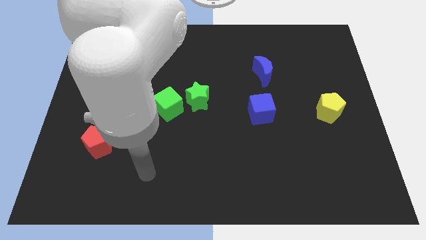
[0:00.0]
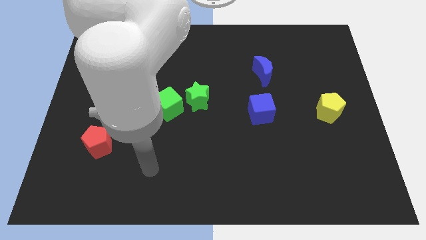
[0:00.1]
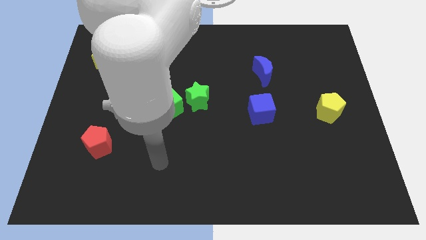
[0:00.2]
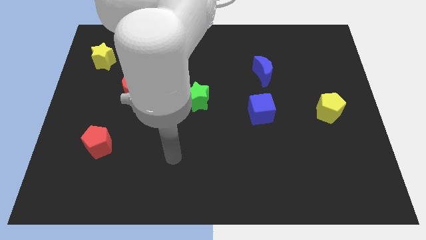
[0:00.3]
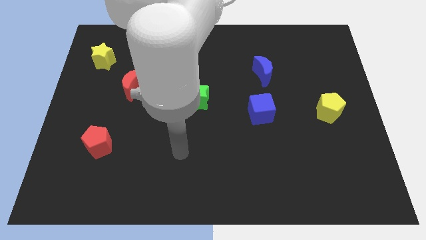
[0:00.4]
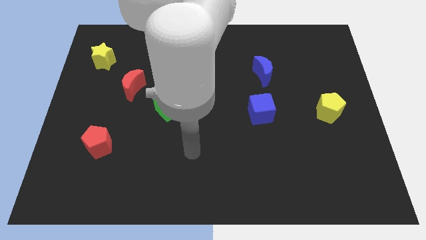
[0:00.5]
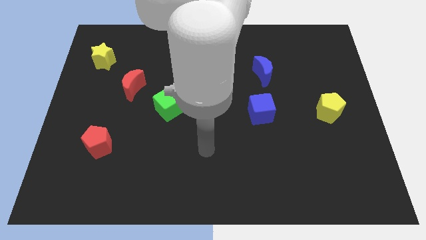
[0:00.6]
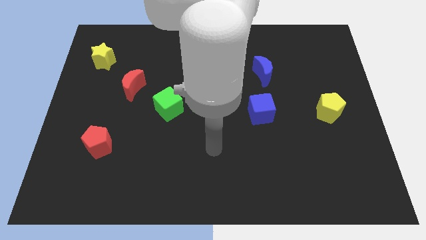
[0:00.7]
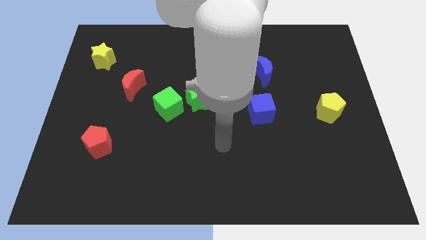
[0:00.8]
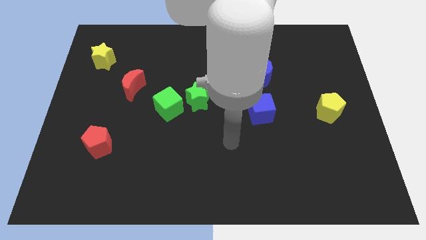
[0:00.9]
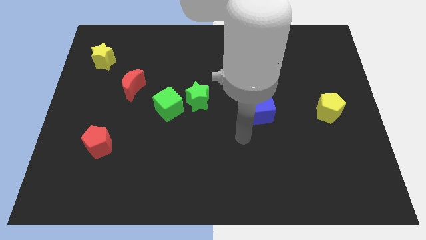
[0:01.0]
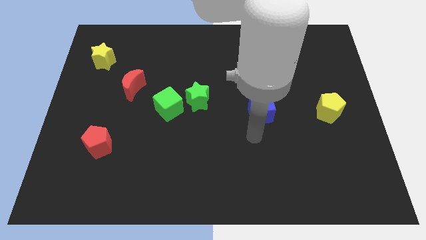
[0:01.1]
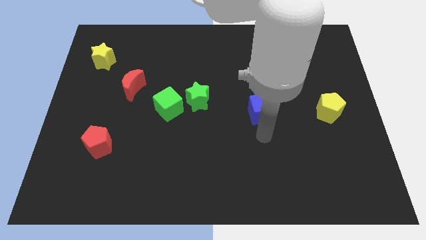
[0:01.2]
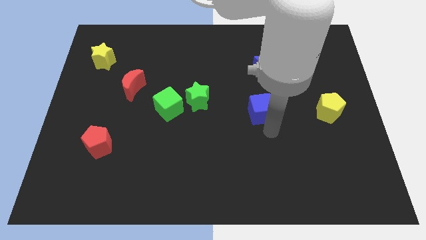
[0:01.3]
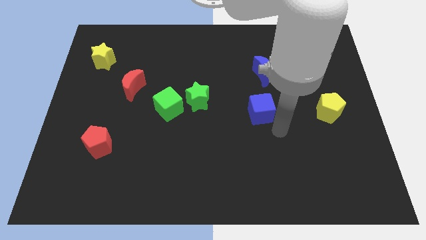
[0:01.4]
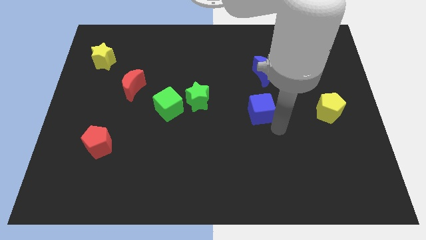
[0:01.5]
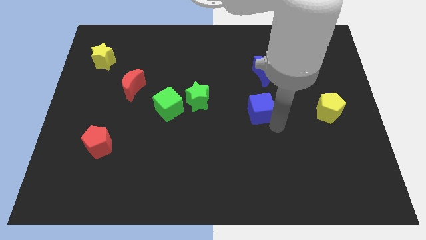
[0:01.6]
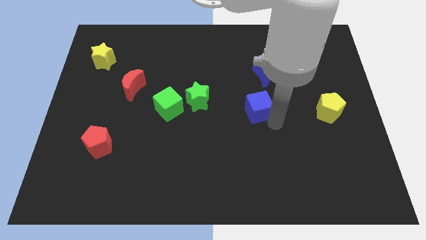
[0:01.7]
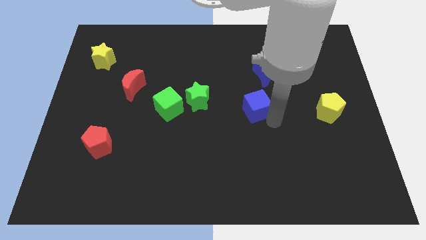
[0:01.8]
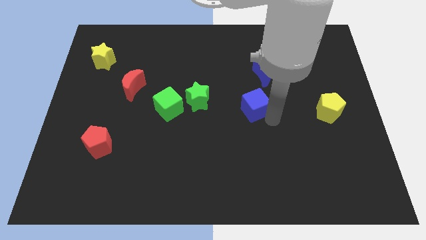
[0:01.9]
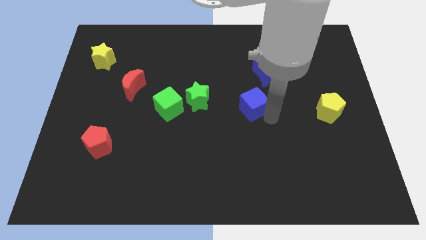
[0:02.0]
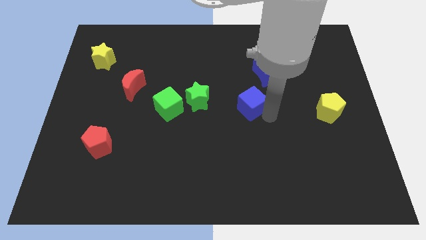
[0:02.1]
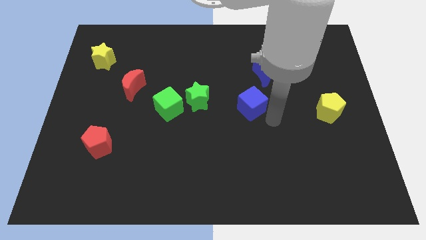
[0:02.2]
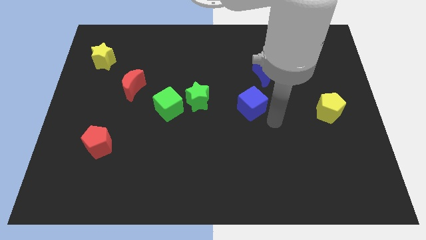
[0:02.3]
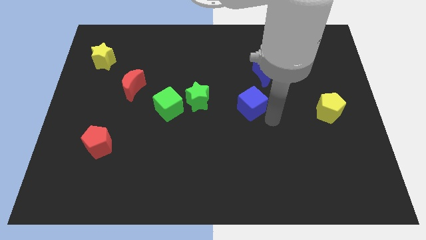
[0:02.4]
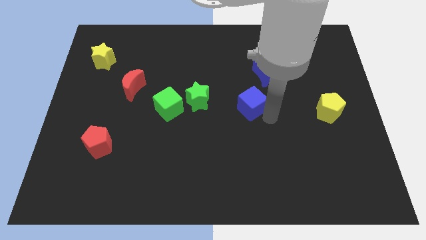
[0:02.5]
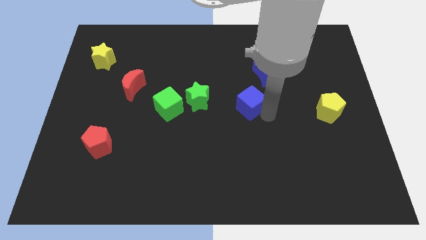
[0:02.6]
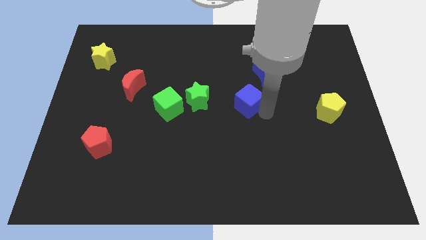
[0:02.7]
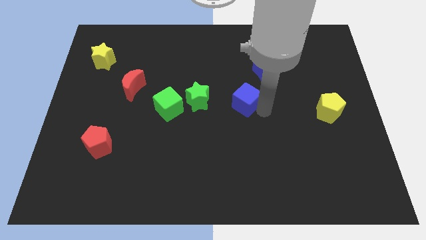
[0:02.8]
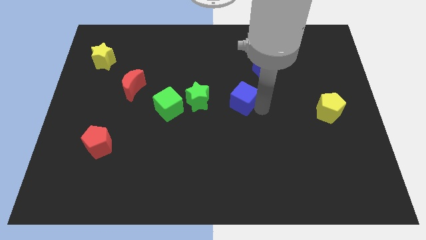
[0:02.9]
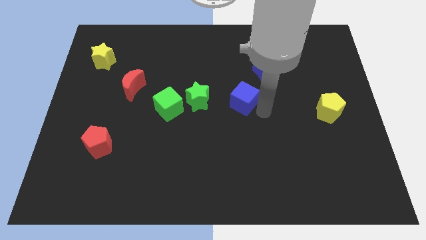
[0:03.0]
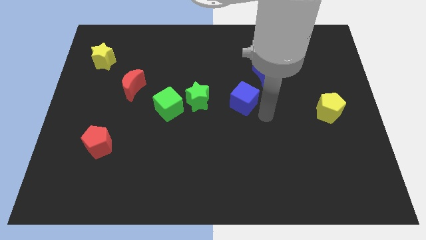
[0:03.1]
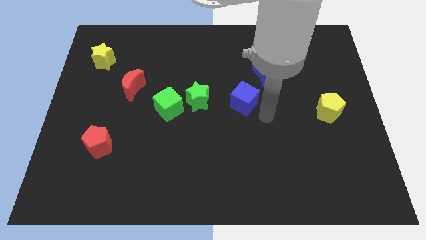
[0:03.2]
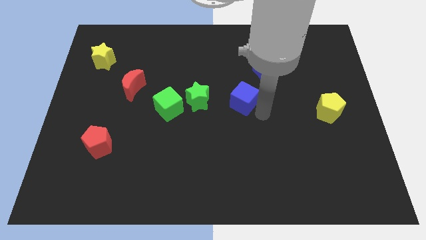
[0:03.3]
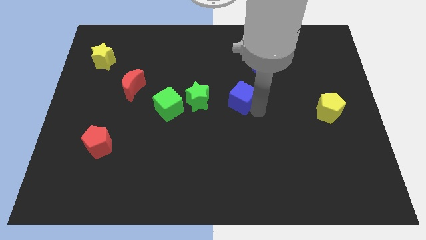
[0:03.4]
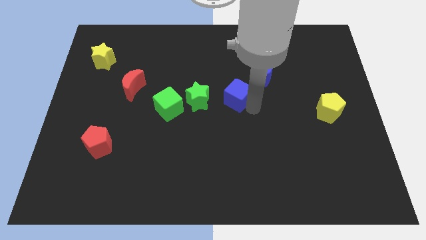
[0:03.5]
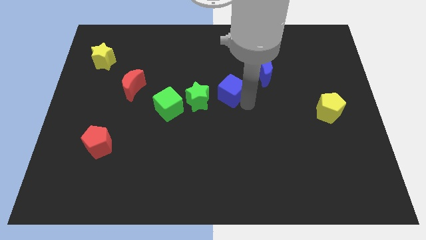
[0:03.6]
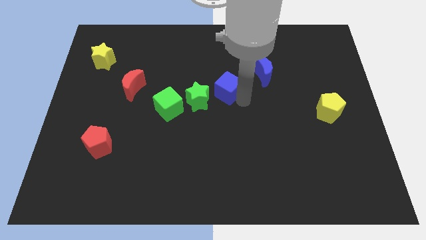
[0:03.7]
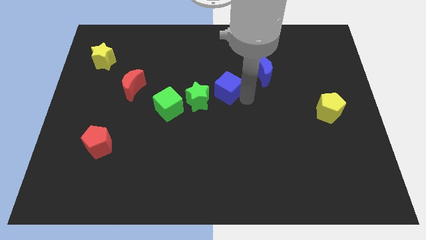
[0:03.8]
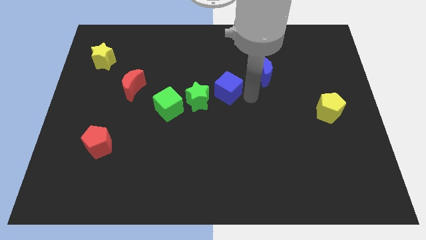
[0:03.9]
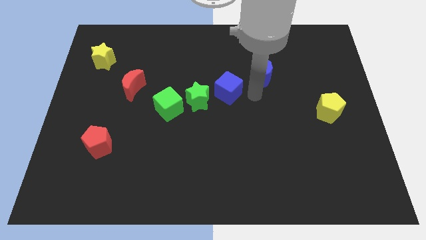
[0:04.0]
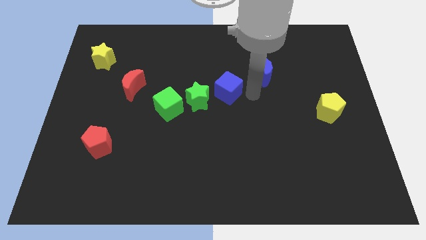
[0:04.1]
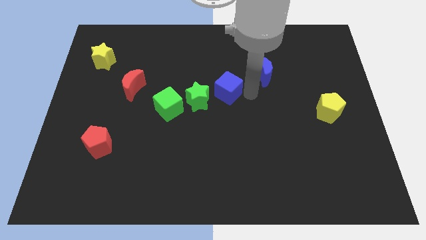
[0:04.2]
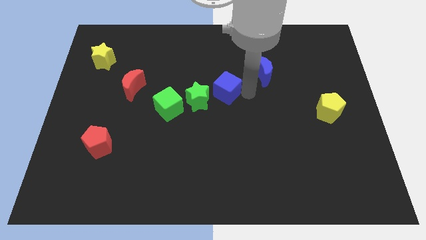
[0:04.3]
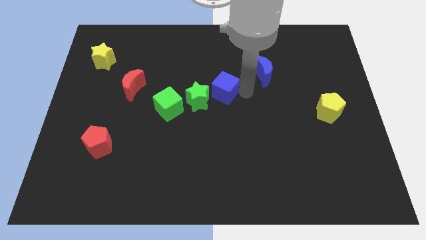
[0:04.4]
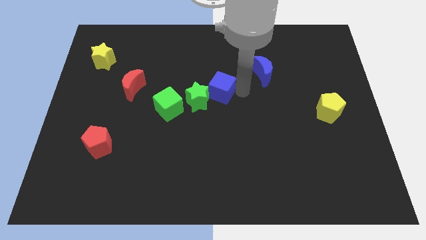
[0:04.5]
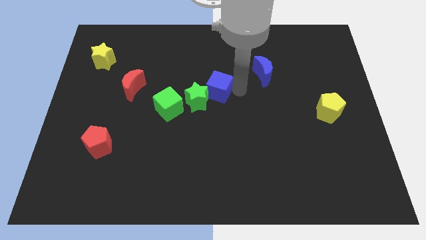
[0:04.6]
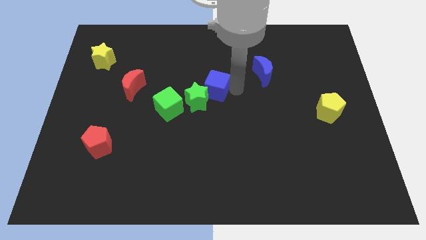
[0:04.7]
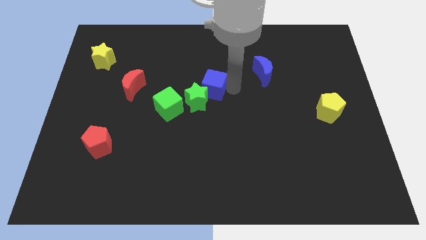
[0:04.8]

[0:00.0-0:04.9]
put the blue cube to the top right side of the green cube

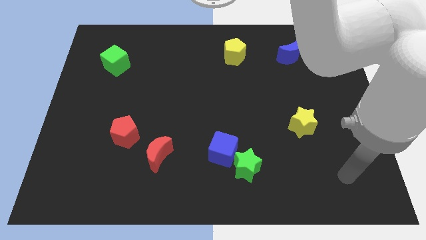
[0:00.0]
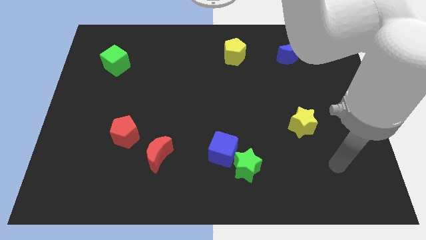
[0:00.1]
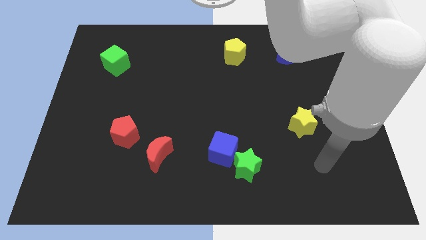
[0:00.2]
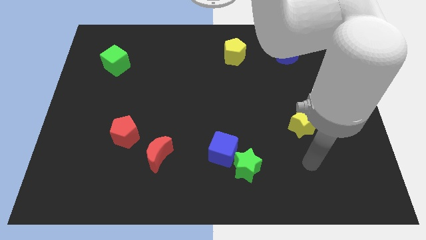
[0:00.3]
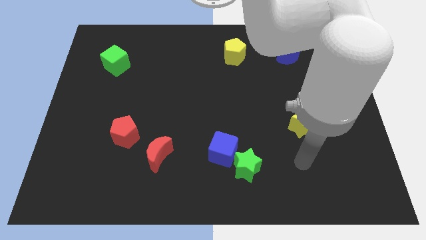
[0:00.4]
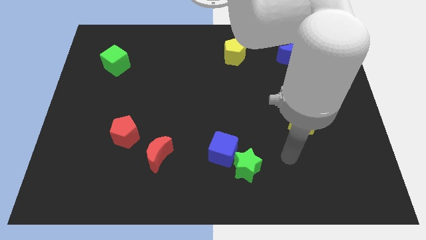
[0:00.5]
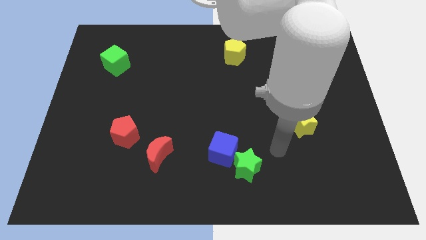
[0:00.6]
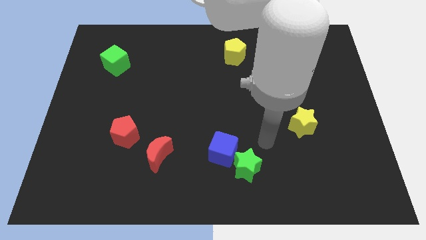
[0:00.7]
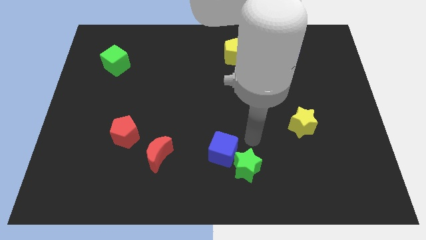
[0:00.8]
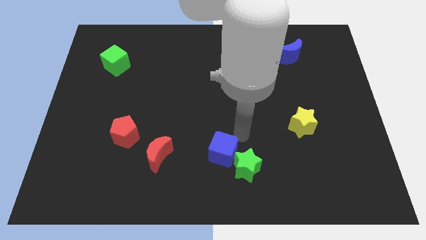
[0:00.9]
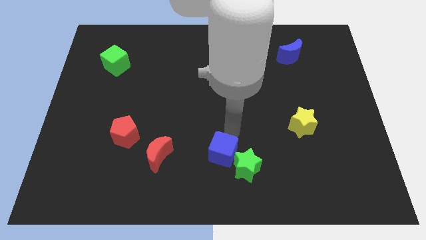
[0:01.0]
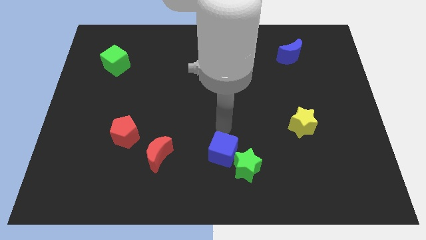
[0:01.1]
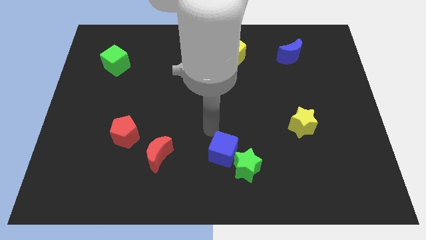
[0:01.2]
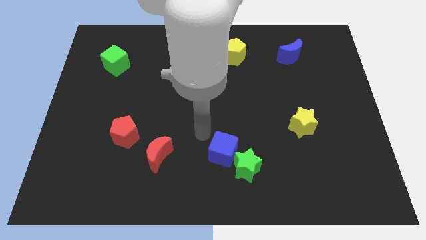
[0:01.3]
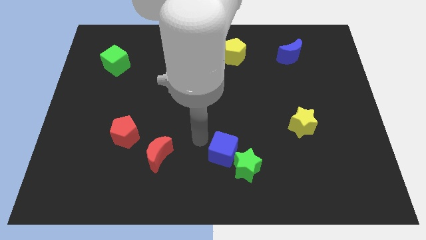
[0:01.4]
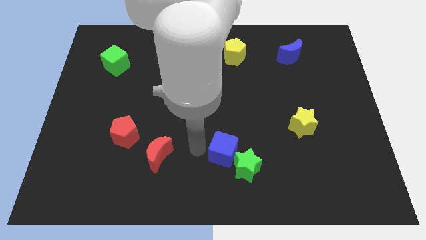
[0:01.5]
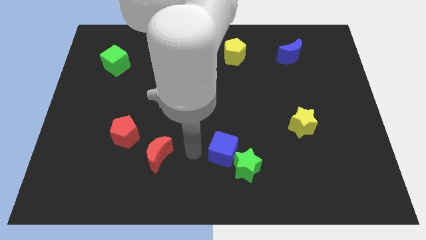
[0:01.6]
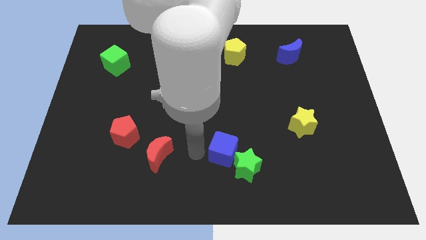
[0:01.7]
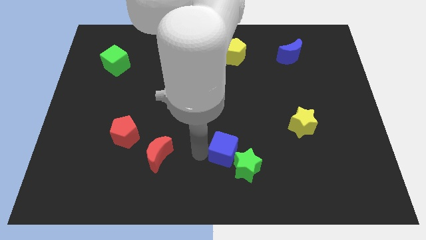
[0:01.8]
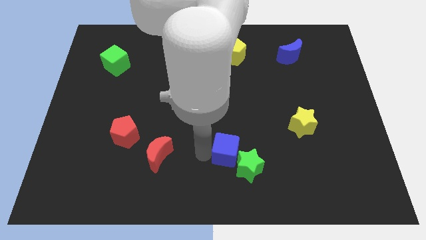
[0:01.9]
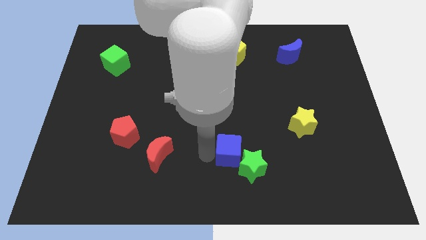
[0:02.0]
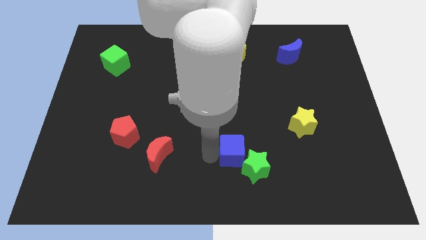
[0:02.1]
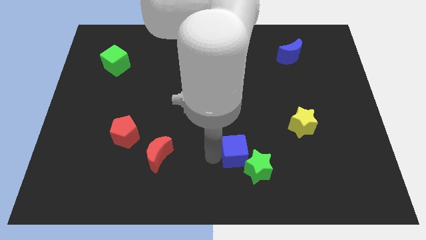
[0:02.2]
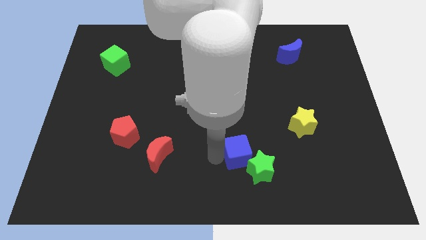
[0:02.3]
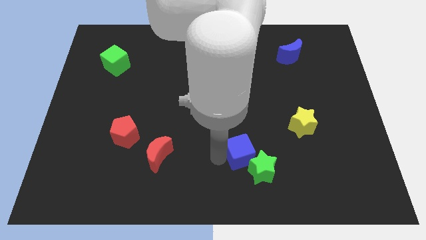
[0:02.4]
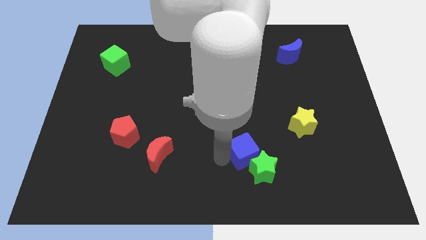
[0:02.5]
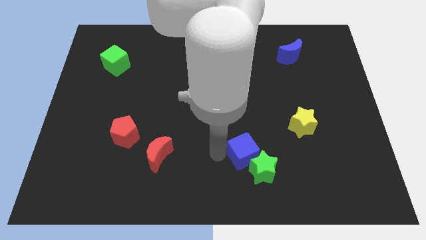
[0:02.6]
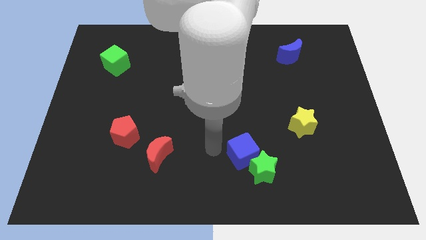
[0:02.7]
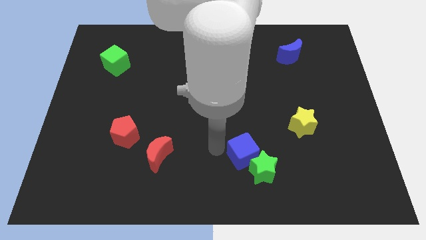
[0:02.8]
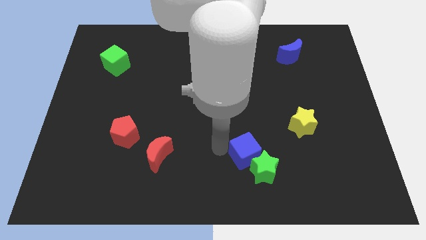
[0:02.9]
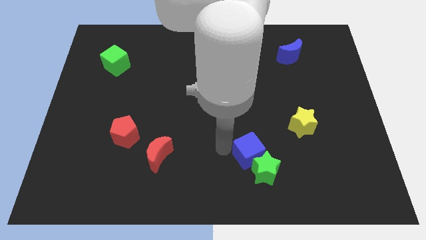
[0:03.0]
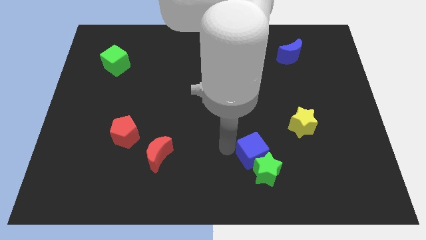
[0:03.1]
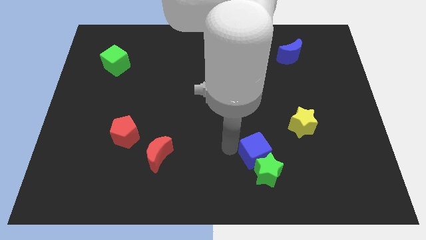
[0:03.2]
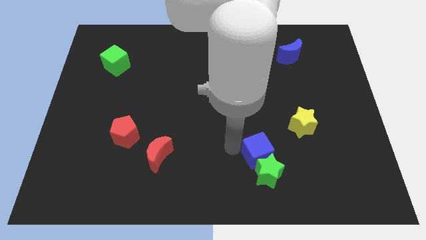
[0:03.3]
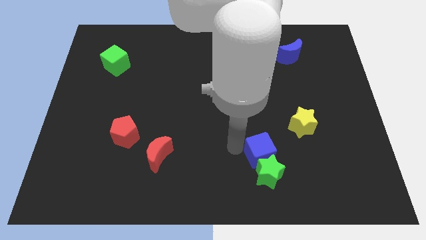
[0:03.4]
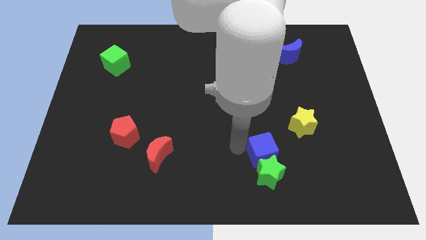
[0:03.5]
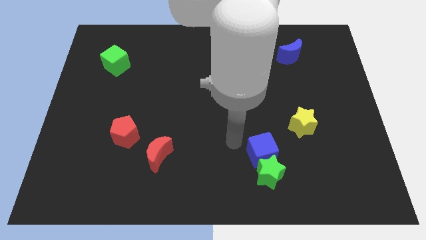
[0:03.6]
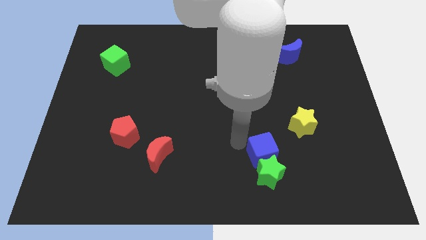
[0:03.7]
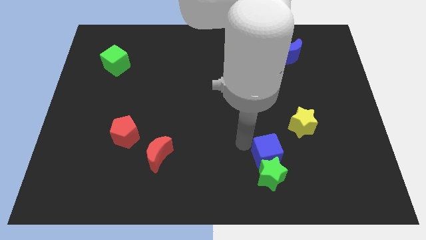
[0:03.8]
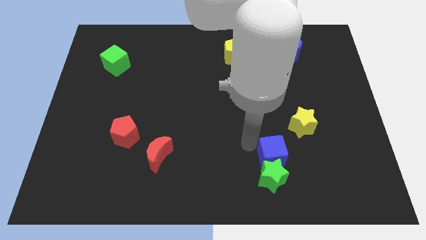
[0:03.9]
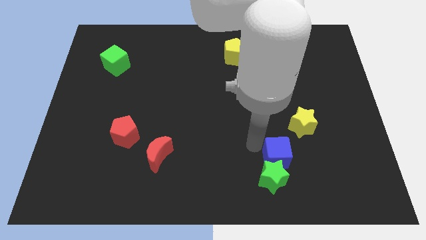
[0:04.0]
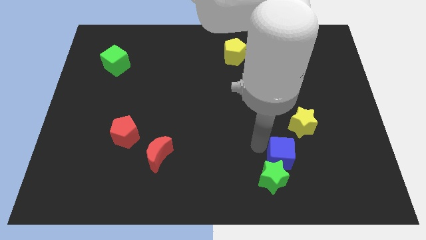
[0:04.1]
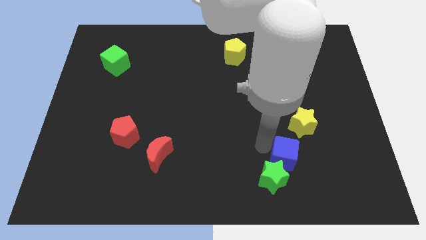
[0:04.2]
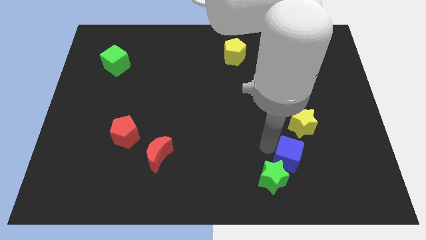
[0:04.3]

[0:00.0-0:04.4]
push the blue cube to the right side of the green star
